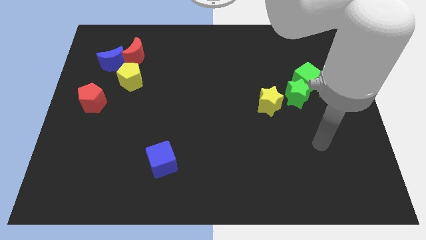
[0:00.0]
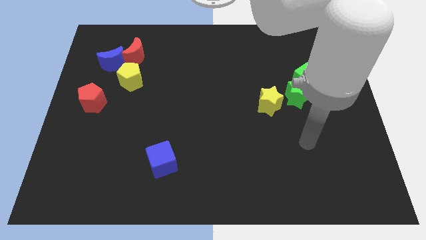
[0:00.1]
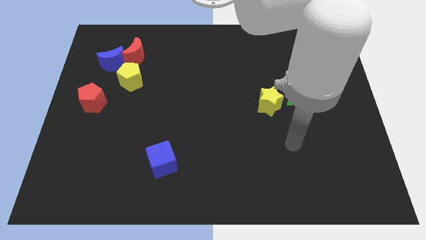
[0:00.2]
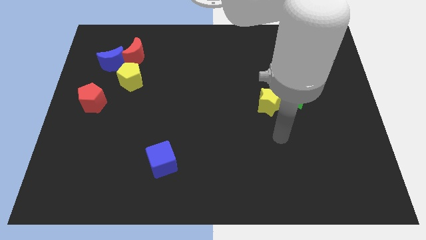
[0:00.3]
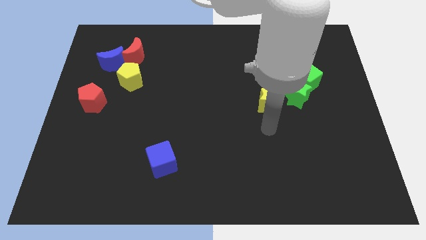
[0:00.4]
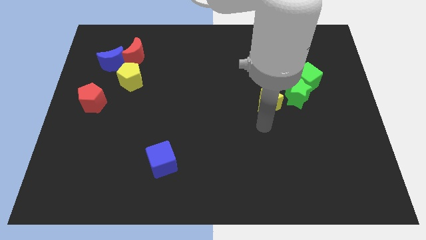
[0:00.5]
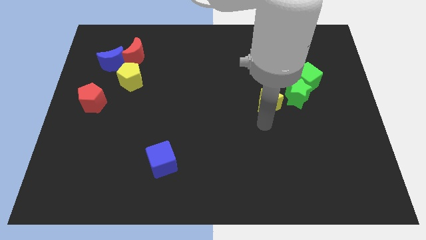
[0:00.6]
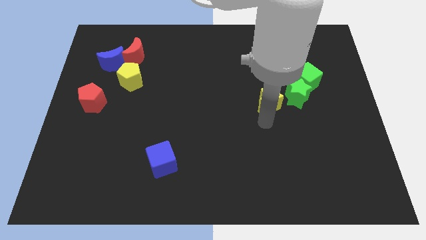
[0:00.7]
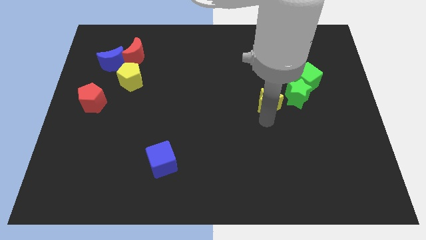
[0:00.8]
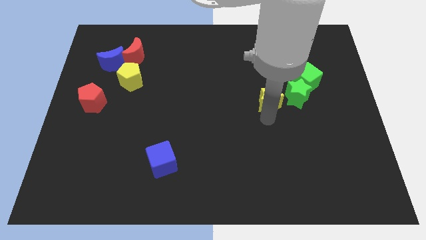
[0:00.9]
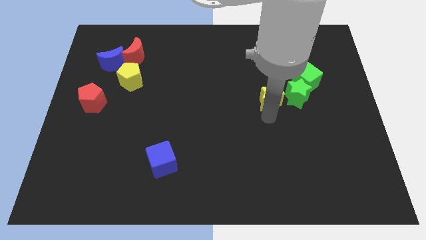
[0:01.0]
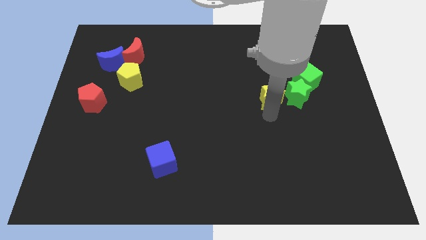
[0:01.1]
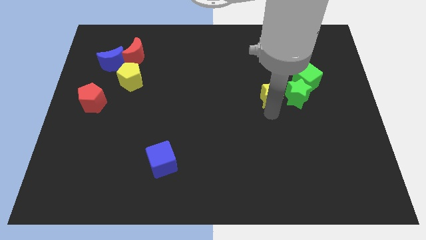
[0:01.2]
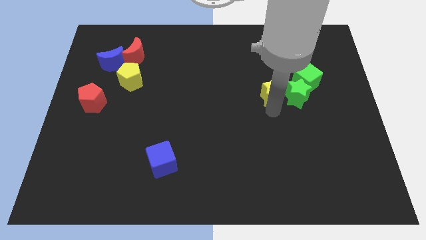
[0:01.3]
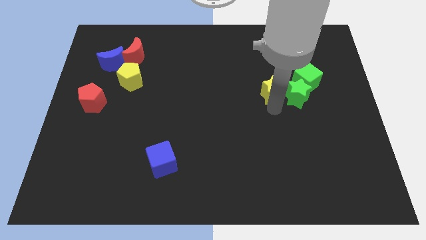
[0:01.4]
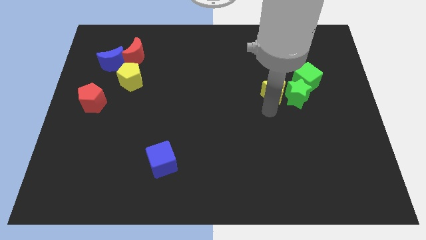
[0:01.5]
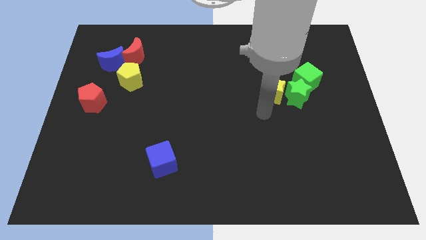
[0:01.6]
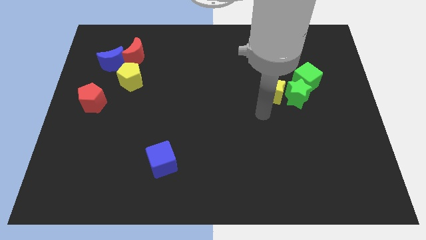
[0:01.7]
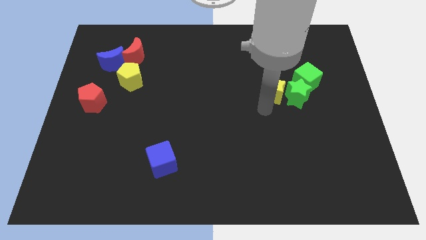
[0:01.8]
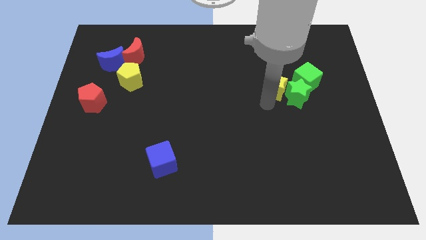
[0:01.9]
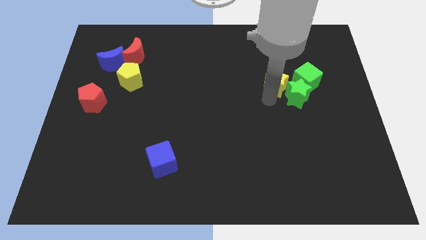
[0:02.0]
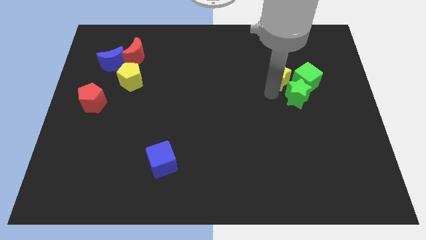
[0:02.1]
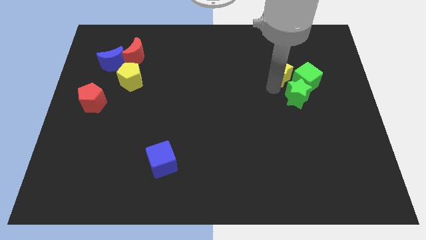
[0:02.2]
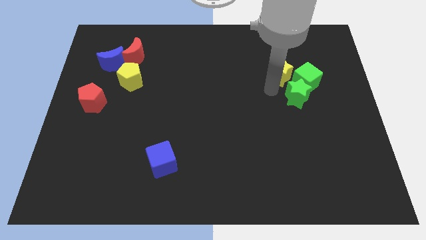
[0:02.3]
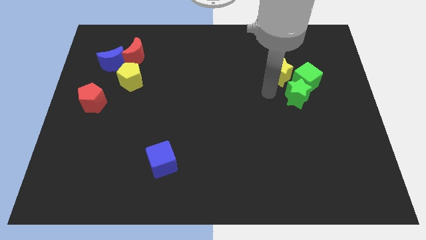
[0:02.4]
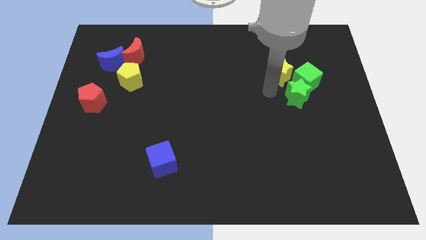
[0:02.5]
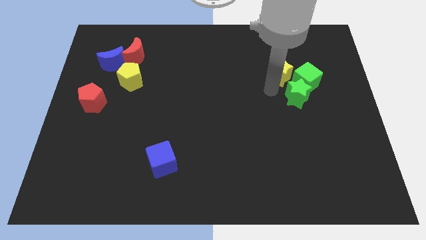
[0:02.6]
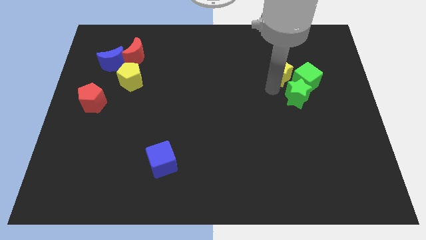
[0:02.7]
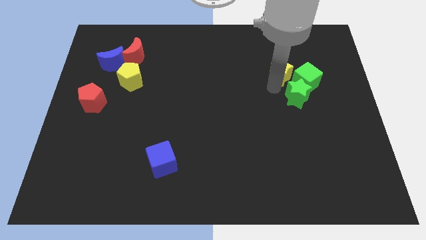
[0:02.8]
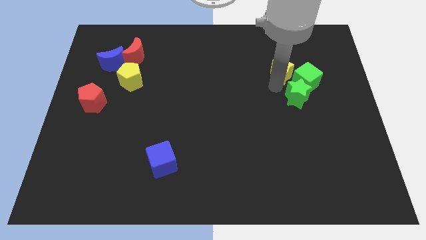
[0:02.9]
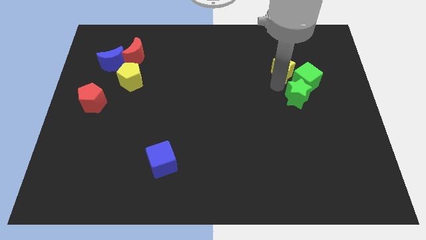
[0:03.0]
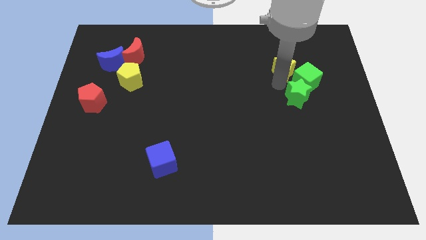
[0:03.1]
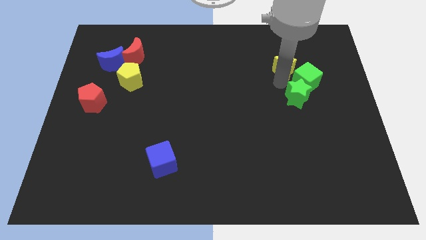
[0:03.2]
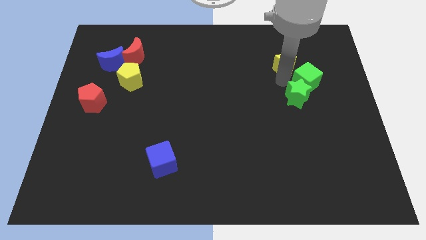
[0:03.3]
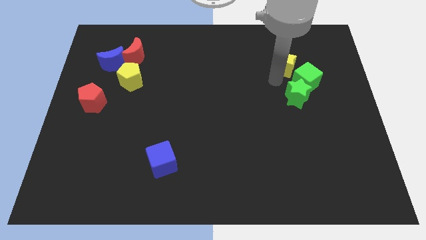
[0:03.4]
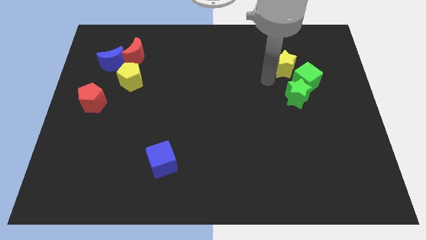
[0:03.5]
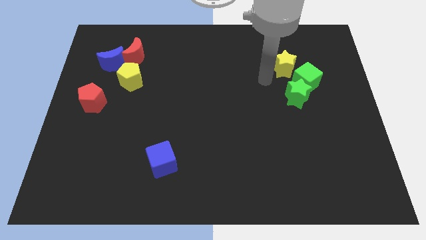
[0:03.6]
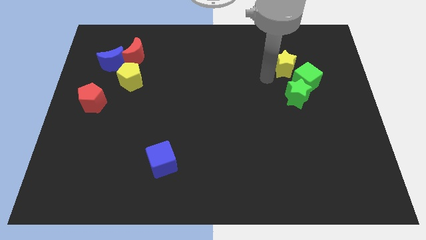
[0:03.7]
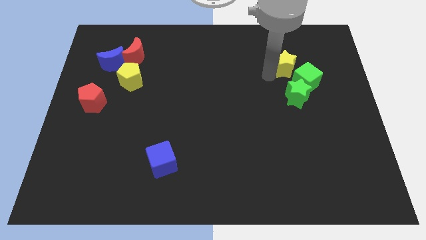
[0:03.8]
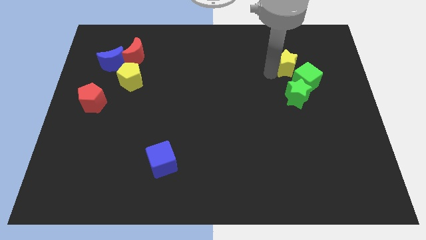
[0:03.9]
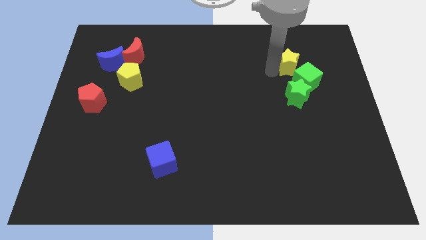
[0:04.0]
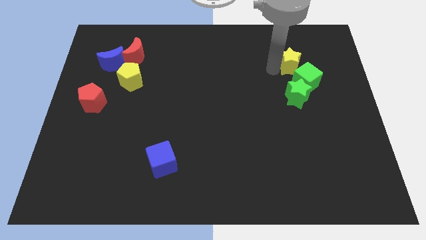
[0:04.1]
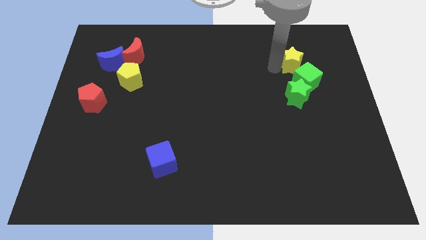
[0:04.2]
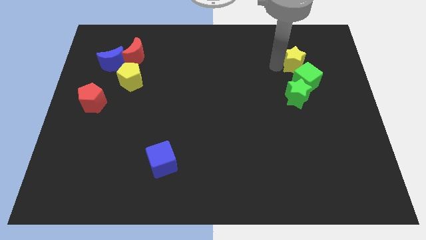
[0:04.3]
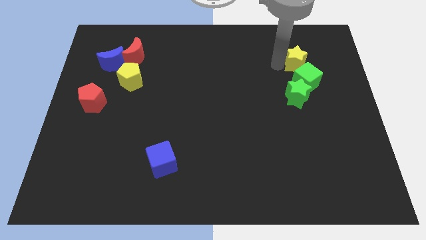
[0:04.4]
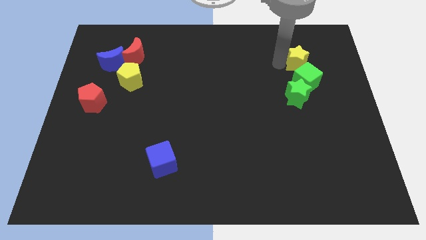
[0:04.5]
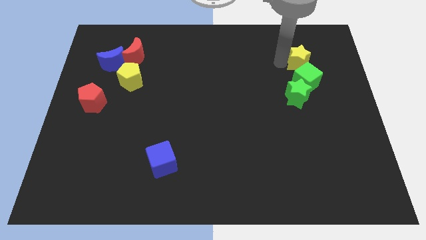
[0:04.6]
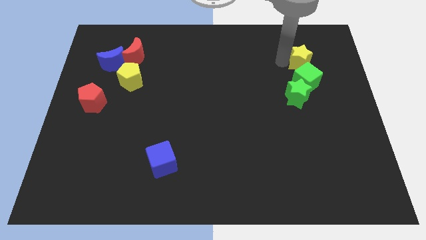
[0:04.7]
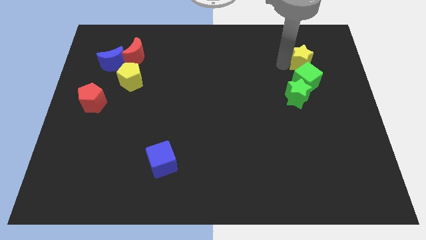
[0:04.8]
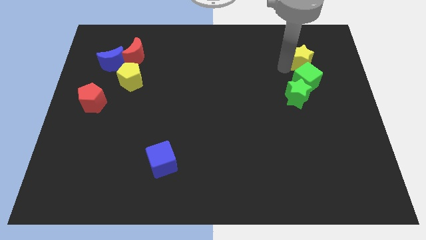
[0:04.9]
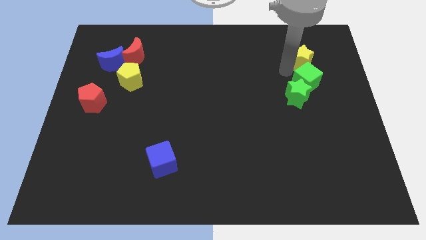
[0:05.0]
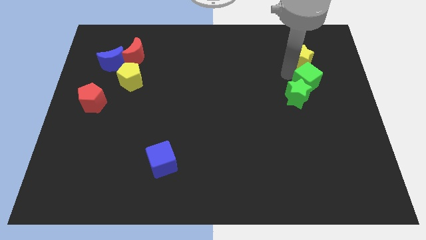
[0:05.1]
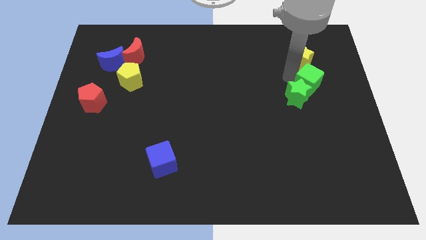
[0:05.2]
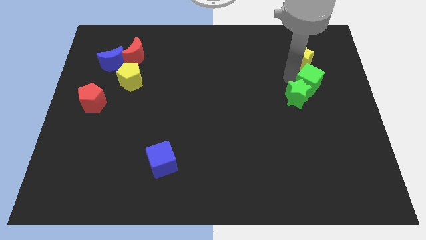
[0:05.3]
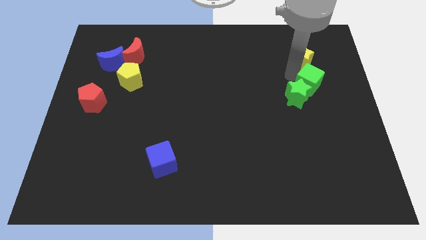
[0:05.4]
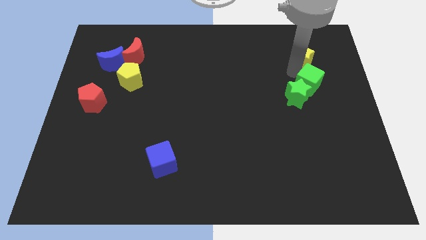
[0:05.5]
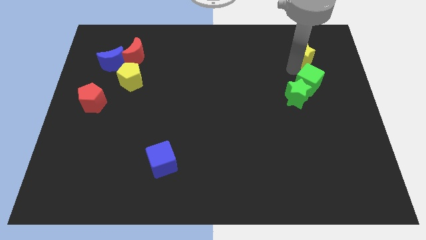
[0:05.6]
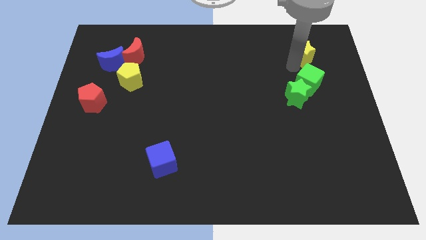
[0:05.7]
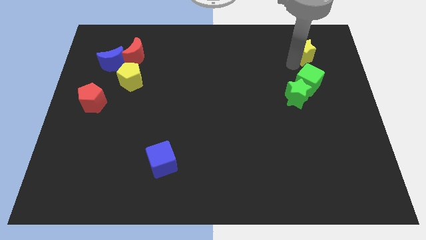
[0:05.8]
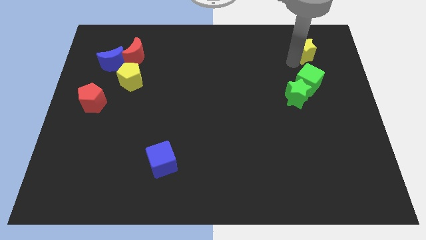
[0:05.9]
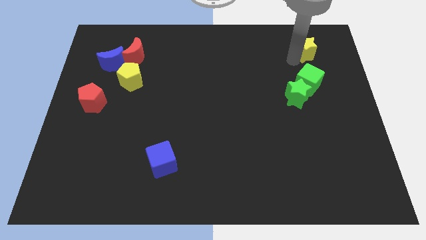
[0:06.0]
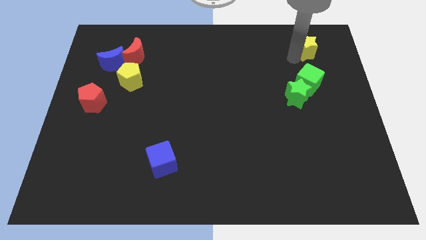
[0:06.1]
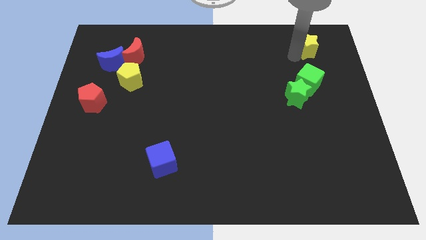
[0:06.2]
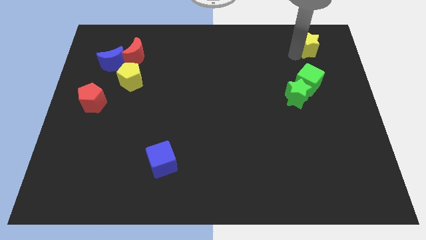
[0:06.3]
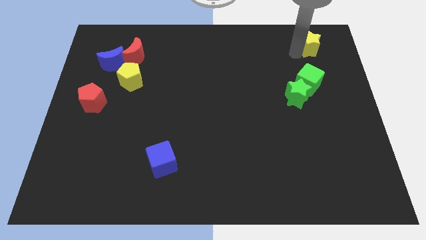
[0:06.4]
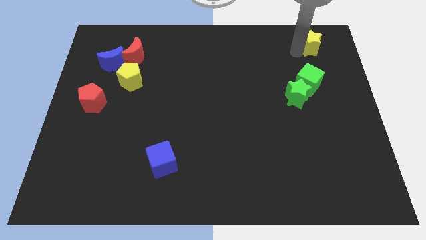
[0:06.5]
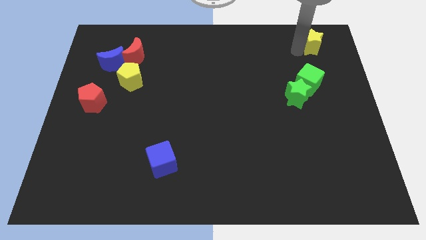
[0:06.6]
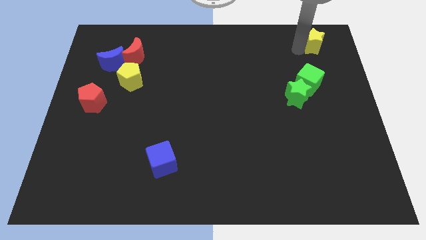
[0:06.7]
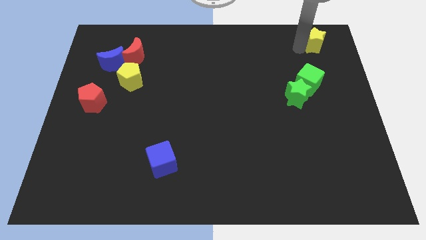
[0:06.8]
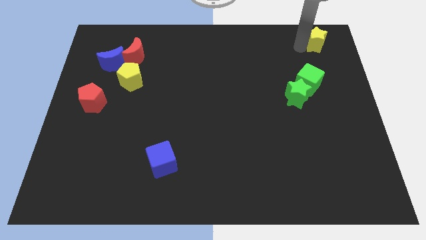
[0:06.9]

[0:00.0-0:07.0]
push the yellow star to the top right
